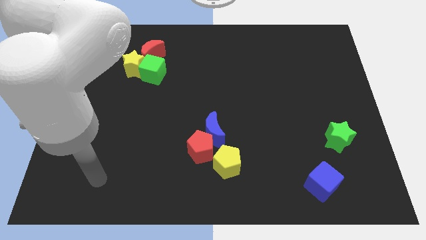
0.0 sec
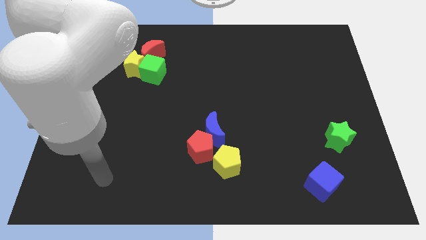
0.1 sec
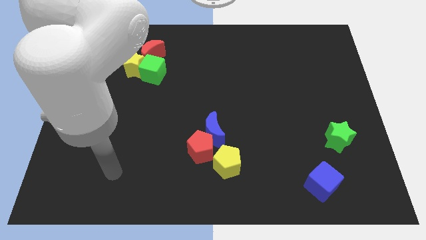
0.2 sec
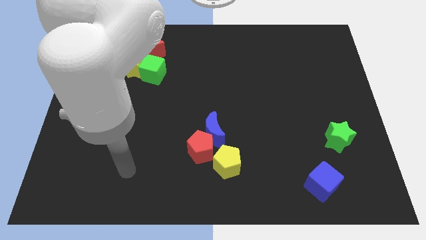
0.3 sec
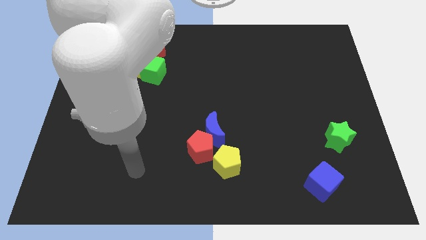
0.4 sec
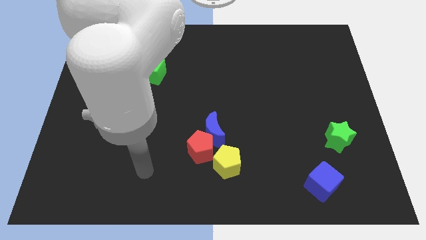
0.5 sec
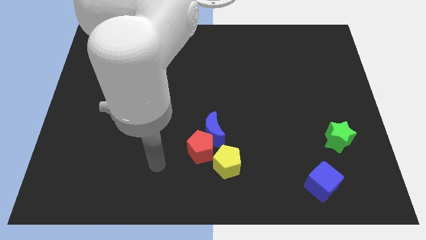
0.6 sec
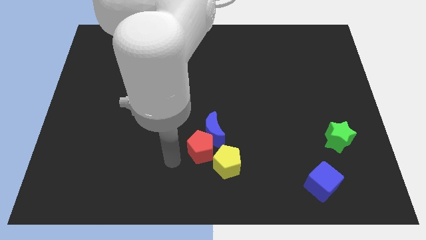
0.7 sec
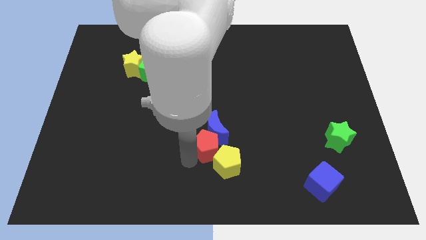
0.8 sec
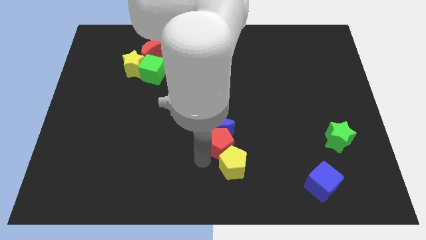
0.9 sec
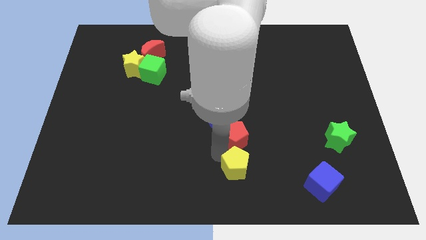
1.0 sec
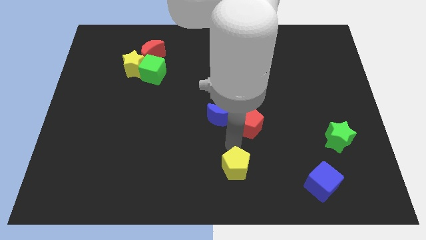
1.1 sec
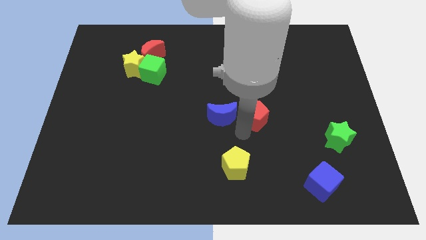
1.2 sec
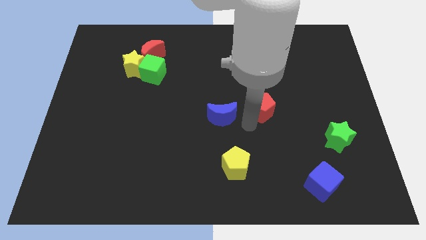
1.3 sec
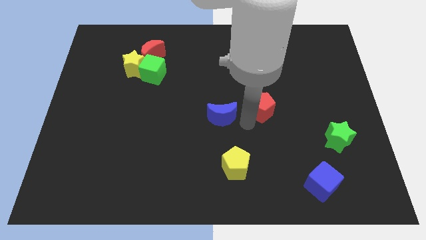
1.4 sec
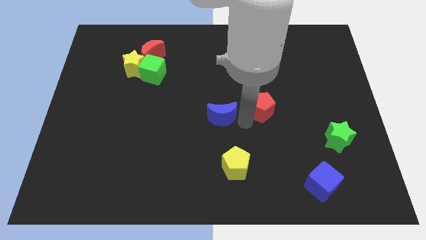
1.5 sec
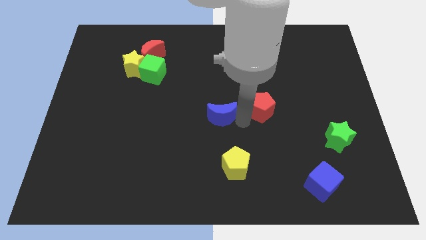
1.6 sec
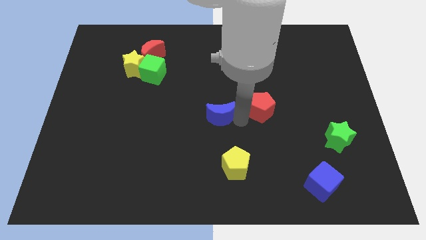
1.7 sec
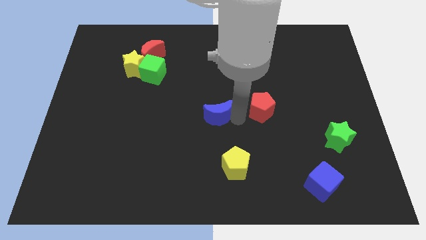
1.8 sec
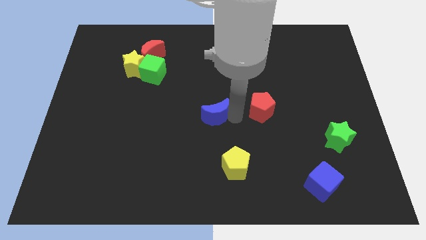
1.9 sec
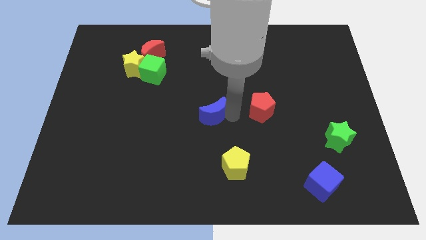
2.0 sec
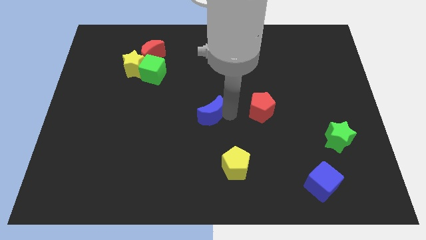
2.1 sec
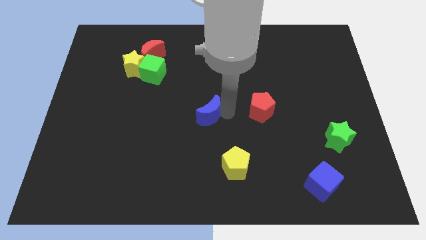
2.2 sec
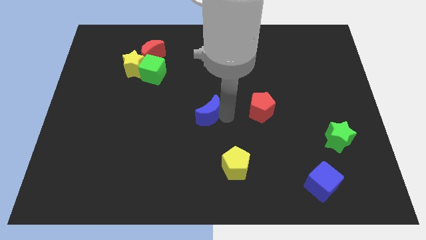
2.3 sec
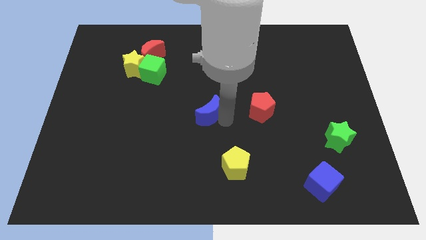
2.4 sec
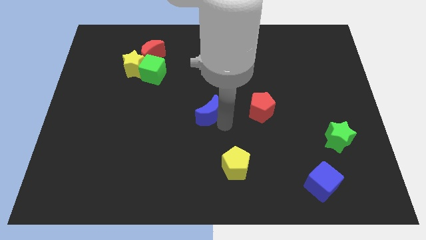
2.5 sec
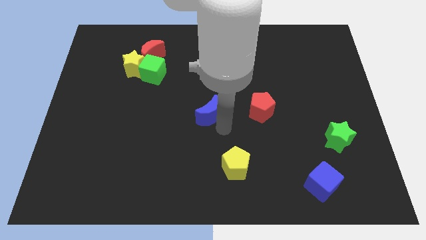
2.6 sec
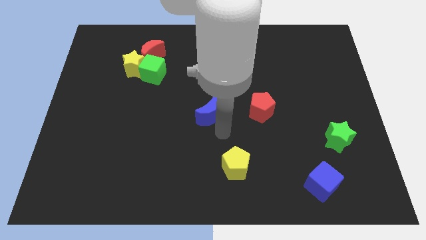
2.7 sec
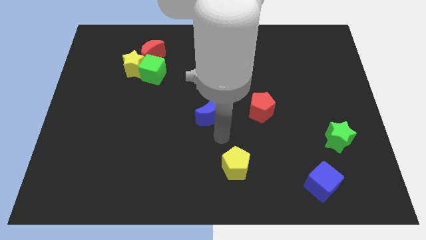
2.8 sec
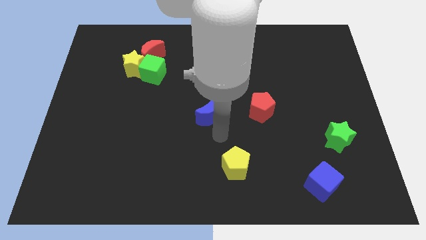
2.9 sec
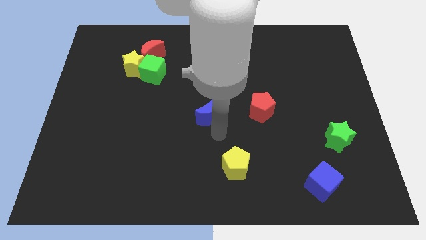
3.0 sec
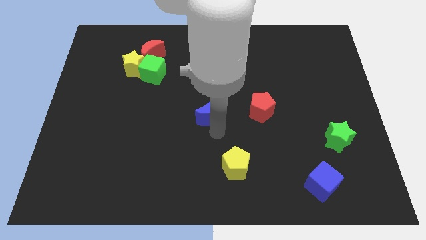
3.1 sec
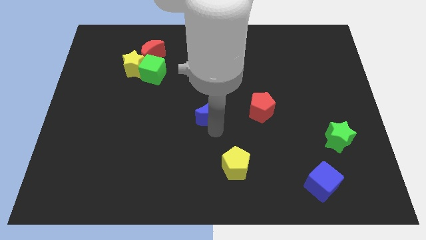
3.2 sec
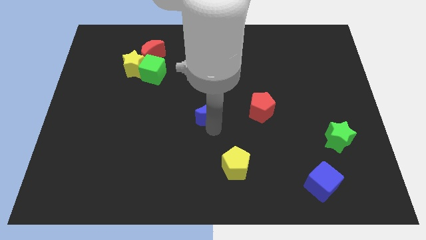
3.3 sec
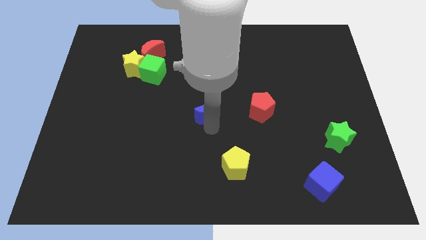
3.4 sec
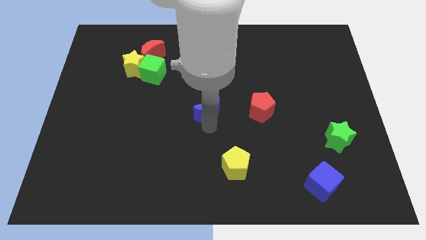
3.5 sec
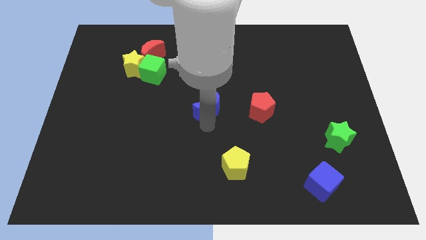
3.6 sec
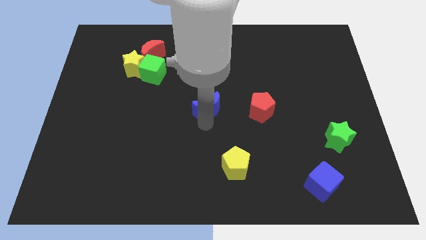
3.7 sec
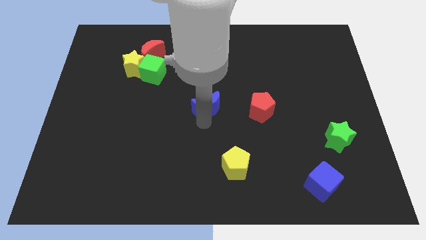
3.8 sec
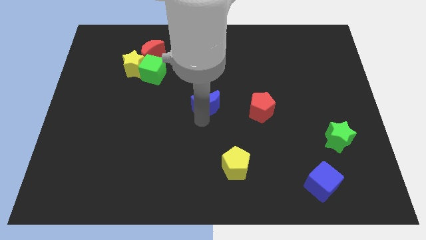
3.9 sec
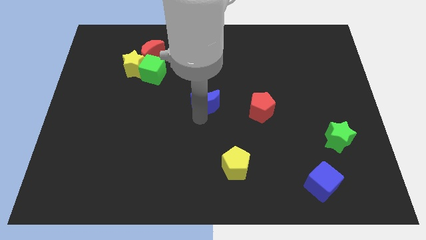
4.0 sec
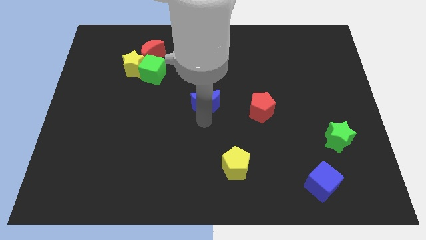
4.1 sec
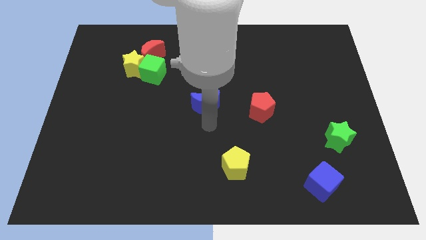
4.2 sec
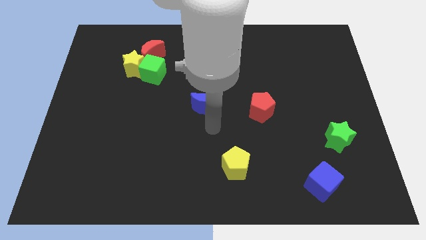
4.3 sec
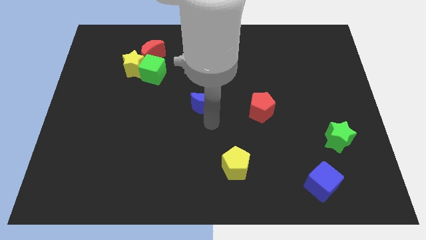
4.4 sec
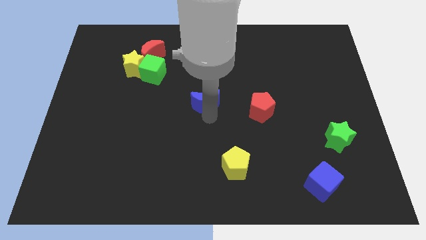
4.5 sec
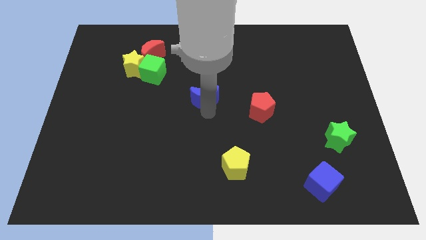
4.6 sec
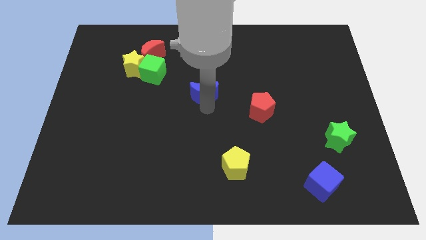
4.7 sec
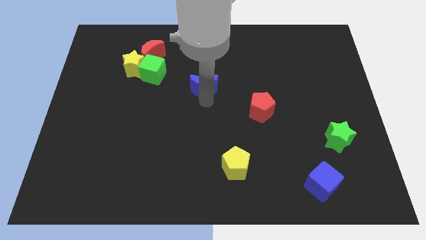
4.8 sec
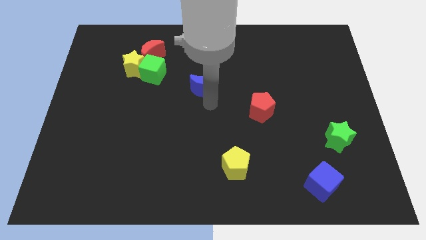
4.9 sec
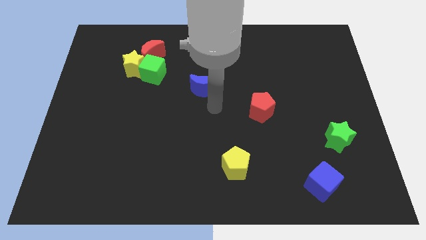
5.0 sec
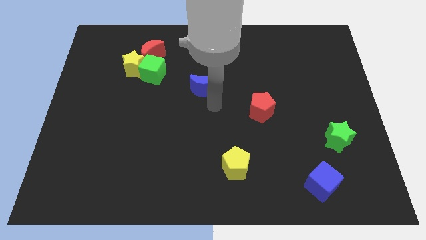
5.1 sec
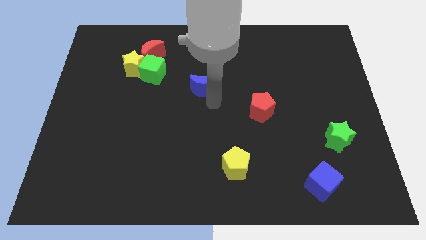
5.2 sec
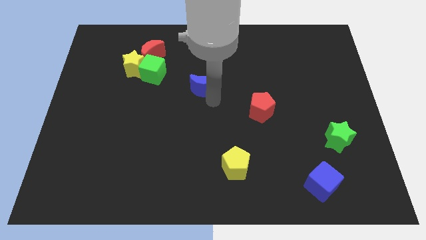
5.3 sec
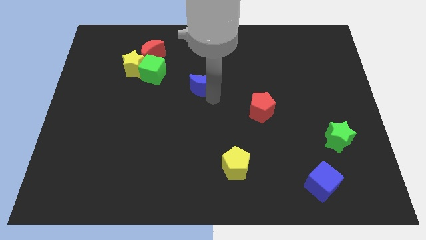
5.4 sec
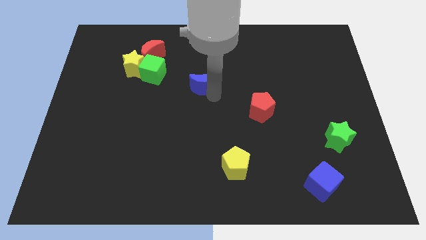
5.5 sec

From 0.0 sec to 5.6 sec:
move the blue moon to the right of the green cube

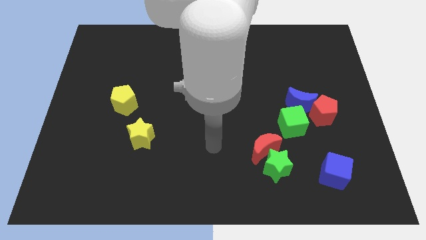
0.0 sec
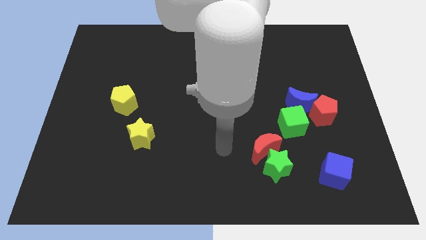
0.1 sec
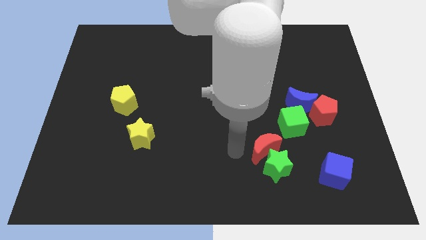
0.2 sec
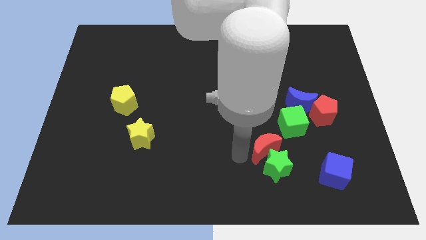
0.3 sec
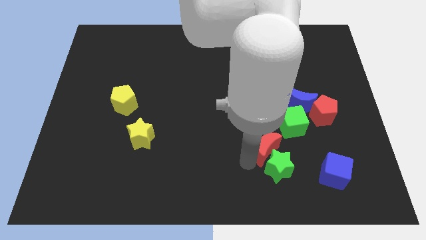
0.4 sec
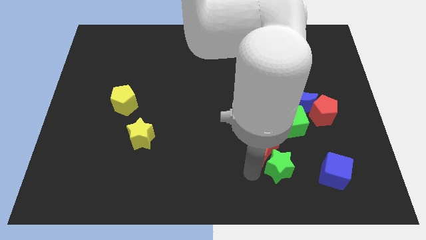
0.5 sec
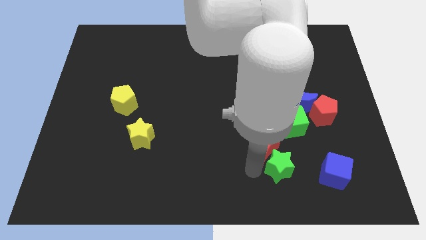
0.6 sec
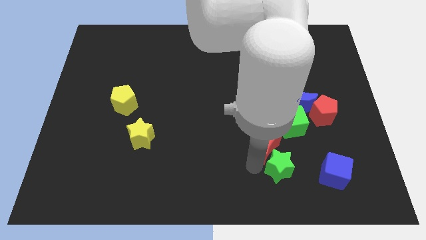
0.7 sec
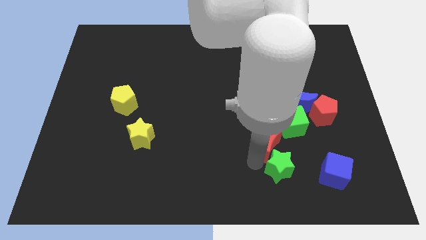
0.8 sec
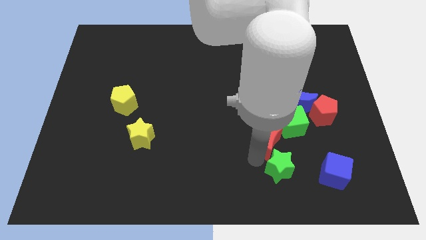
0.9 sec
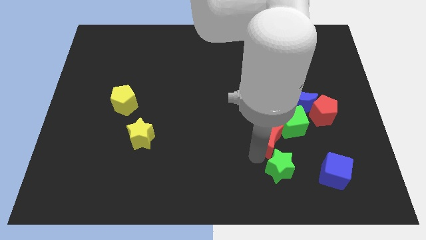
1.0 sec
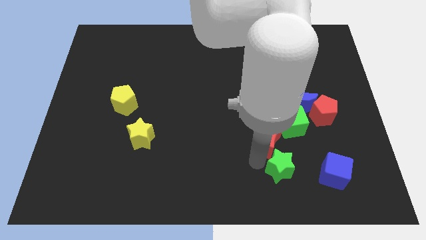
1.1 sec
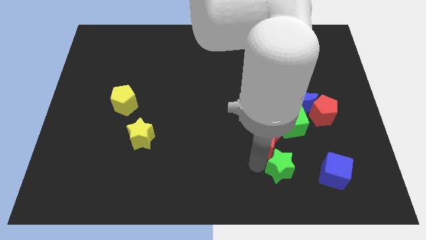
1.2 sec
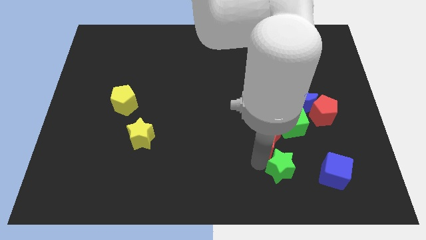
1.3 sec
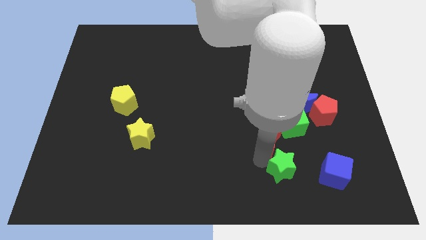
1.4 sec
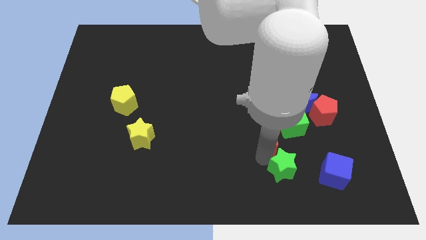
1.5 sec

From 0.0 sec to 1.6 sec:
put the red moon diagonally down and to the left of the blue moon
